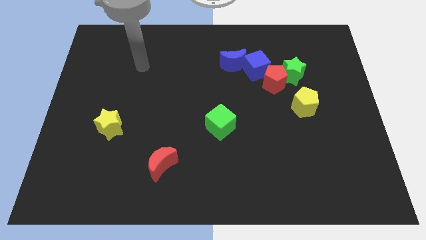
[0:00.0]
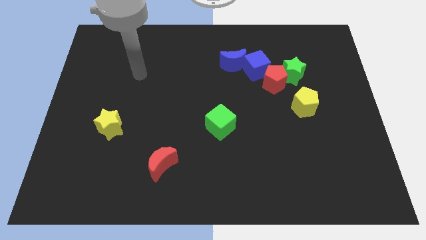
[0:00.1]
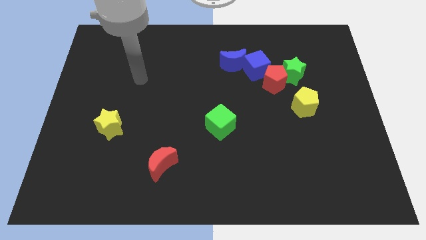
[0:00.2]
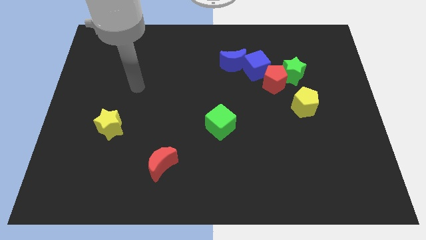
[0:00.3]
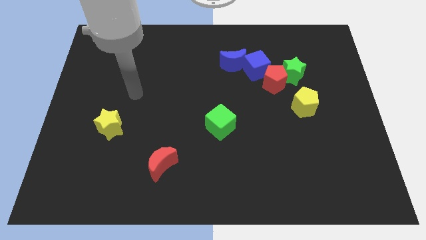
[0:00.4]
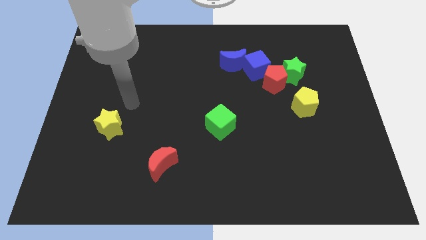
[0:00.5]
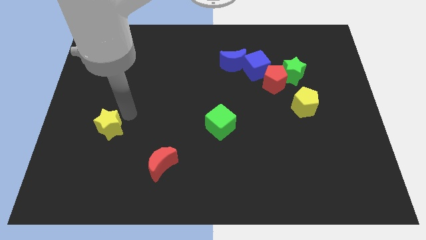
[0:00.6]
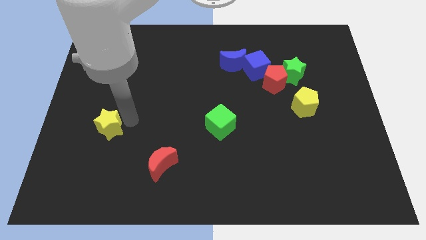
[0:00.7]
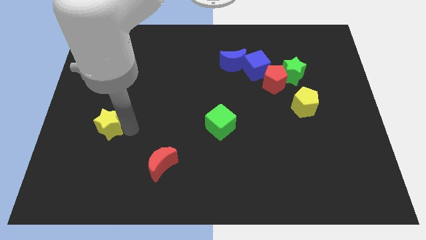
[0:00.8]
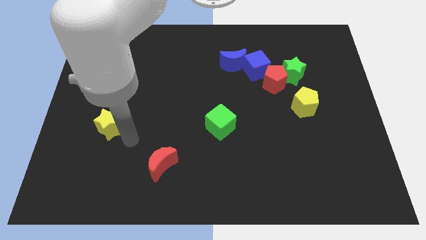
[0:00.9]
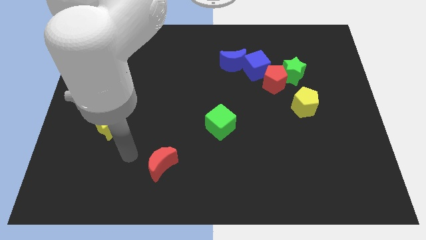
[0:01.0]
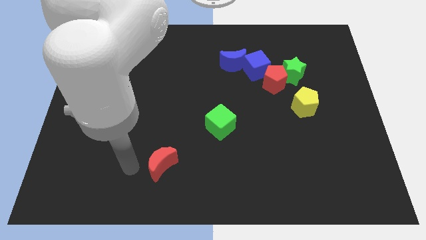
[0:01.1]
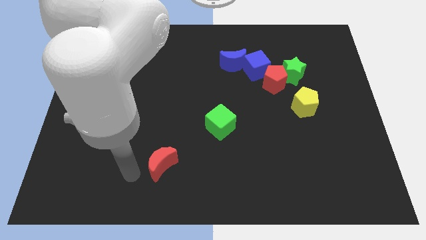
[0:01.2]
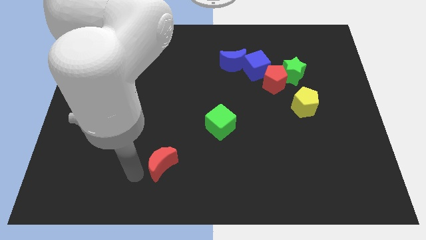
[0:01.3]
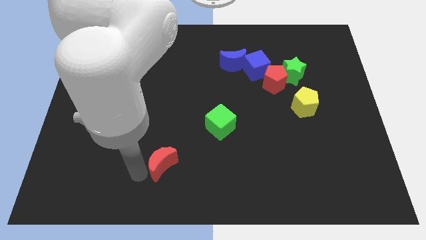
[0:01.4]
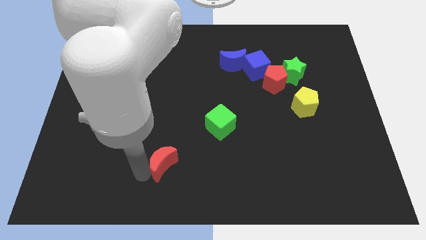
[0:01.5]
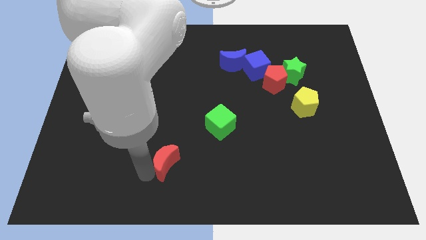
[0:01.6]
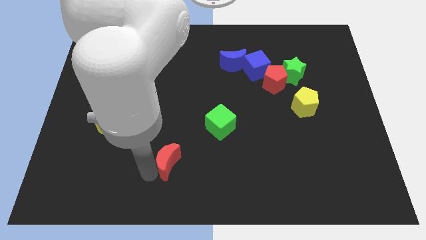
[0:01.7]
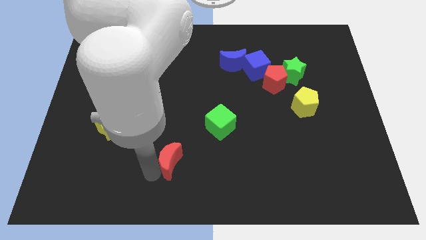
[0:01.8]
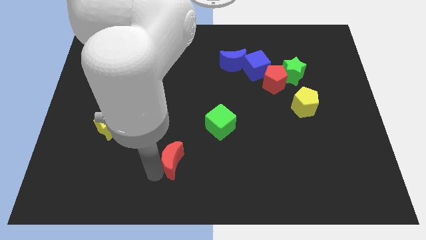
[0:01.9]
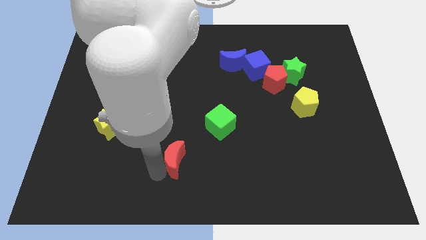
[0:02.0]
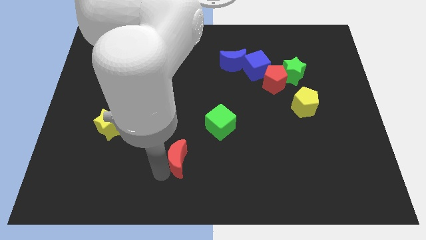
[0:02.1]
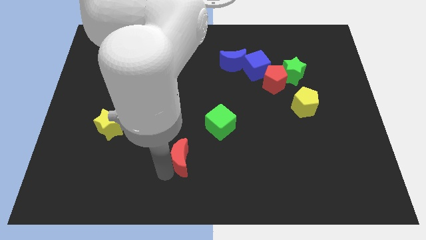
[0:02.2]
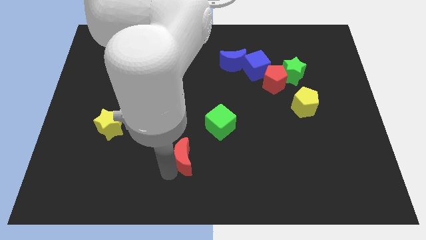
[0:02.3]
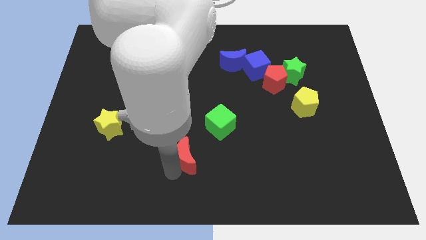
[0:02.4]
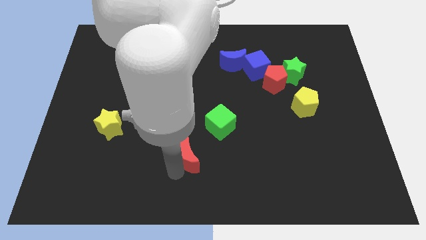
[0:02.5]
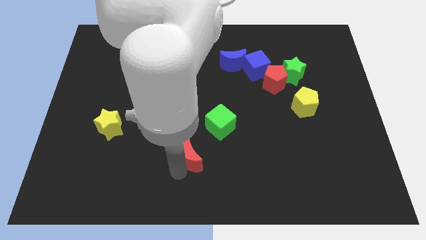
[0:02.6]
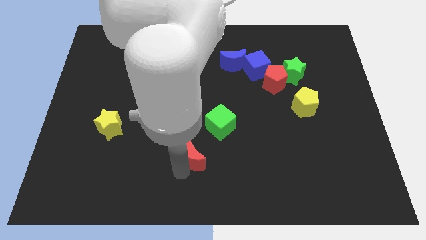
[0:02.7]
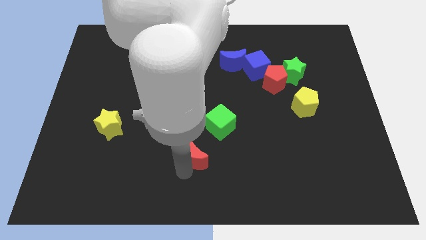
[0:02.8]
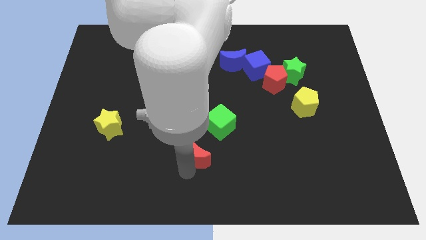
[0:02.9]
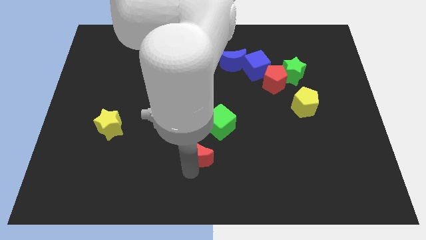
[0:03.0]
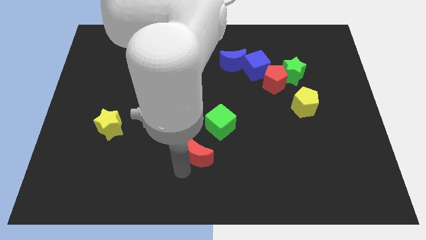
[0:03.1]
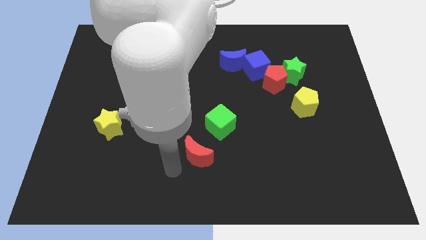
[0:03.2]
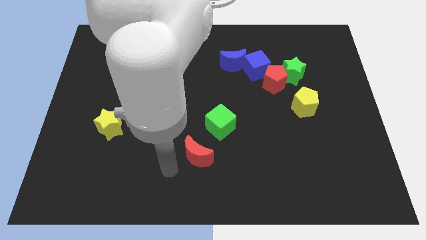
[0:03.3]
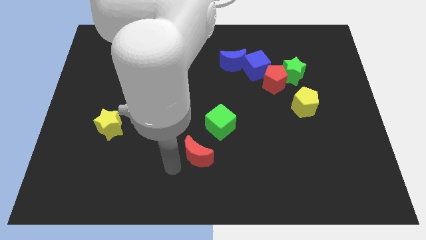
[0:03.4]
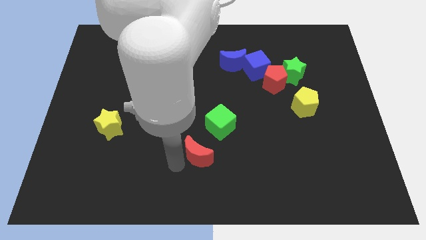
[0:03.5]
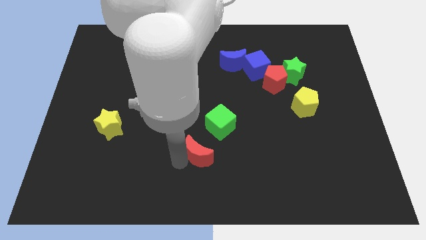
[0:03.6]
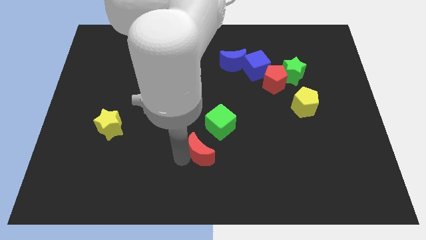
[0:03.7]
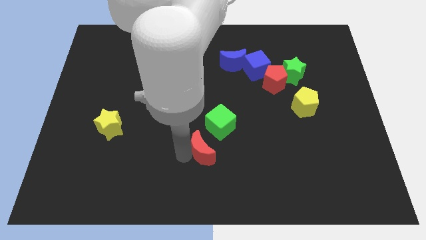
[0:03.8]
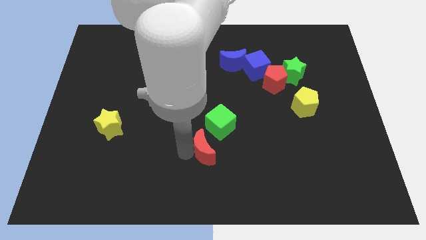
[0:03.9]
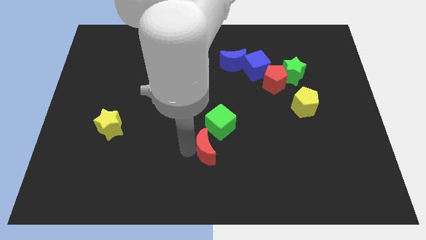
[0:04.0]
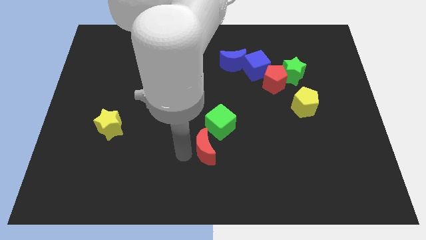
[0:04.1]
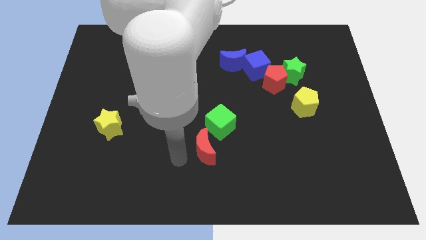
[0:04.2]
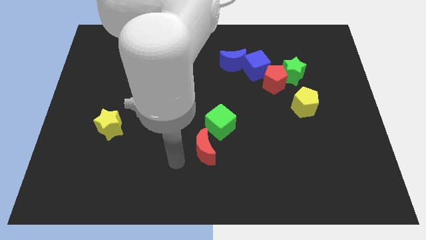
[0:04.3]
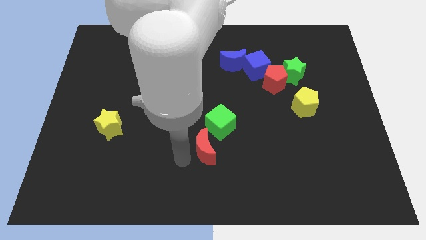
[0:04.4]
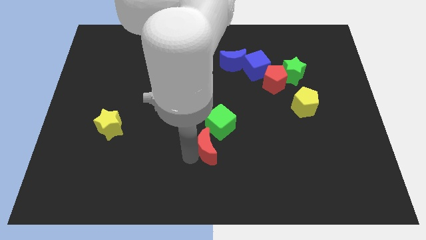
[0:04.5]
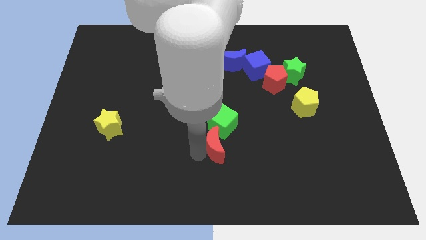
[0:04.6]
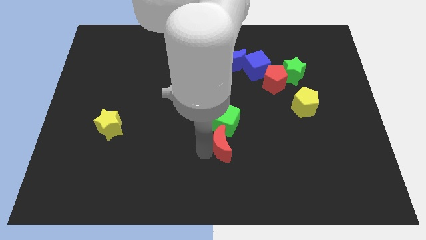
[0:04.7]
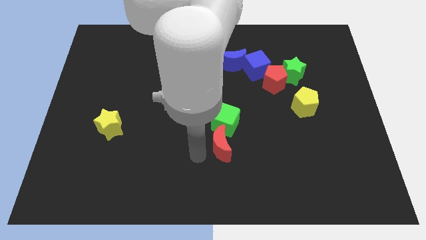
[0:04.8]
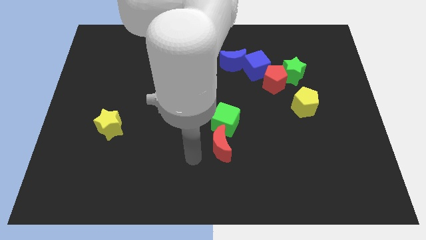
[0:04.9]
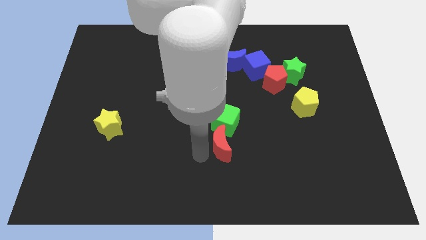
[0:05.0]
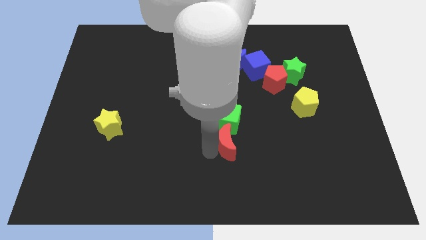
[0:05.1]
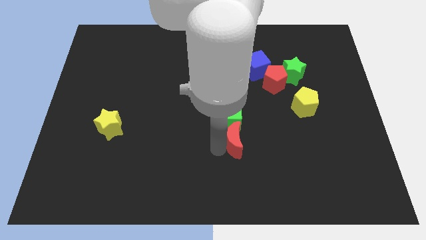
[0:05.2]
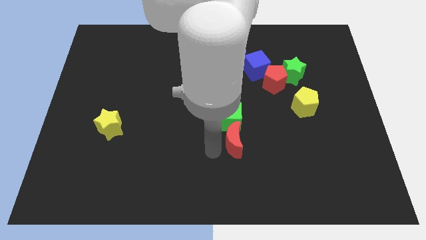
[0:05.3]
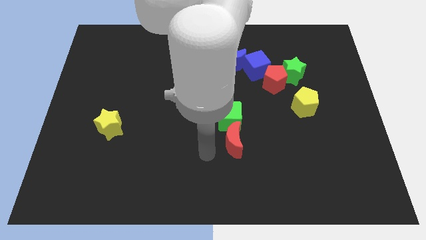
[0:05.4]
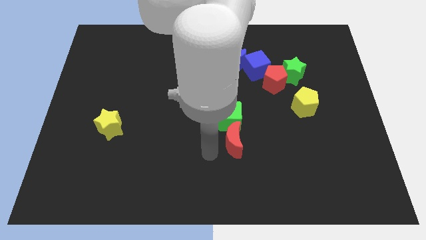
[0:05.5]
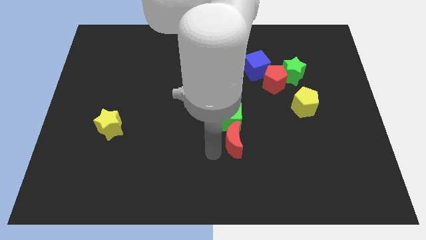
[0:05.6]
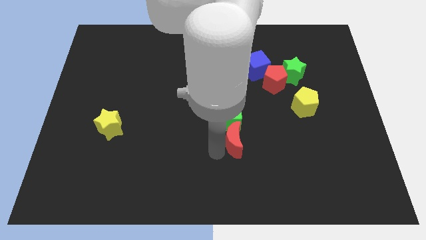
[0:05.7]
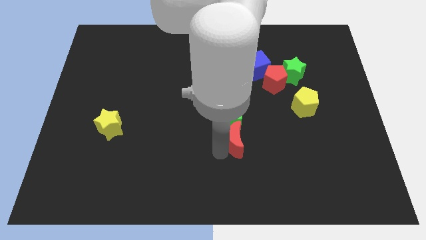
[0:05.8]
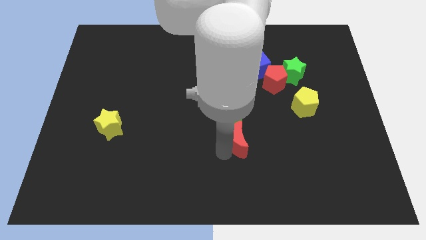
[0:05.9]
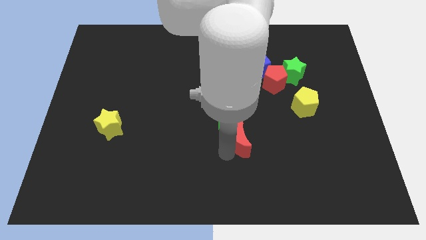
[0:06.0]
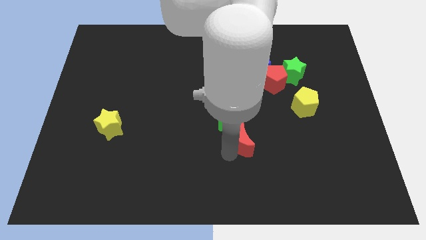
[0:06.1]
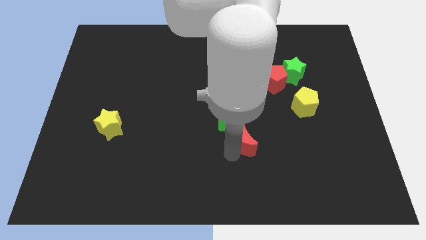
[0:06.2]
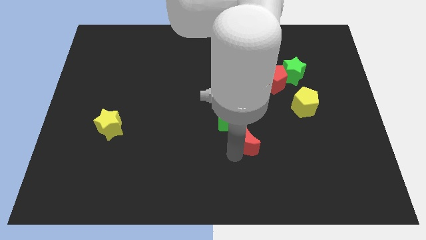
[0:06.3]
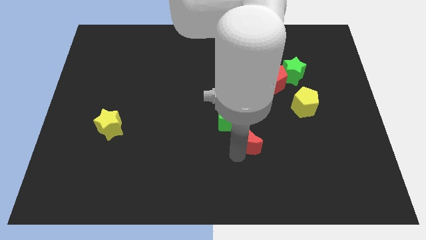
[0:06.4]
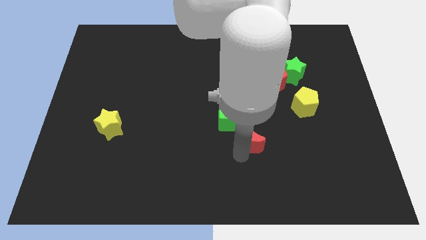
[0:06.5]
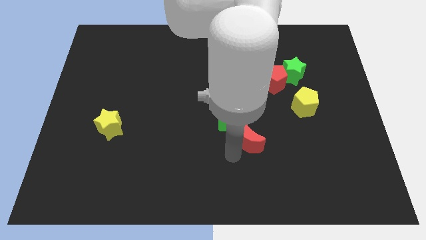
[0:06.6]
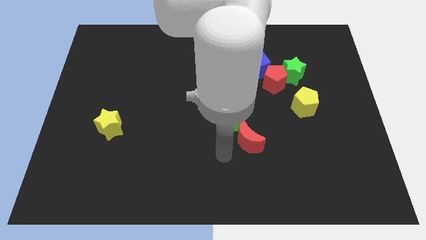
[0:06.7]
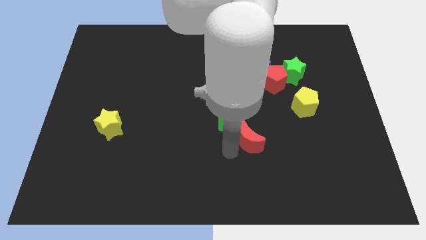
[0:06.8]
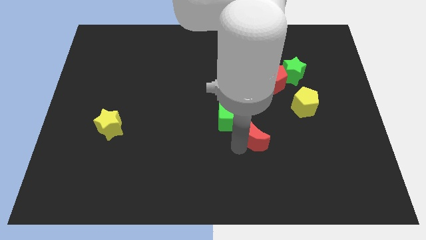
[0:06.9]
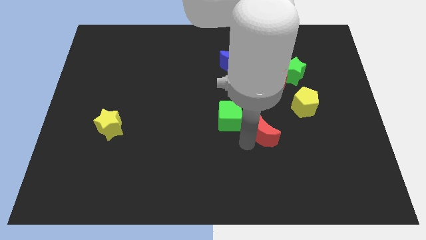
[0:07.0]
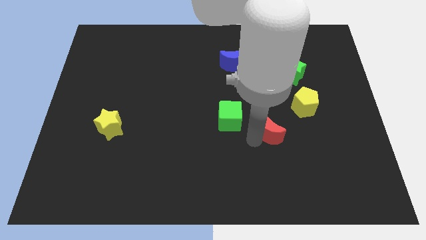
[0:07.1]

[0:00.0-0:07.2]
move the red moon diagonally down and to the left of the yellow pentagon
